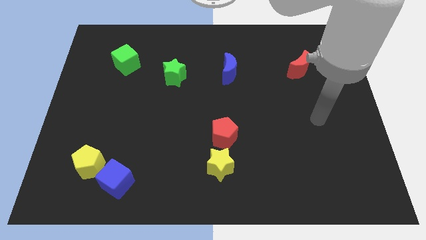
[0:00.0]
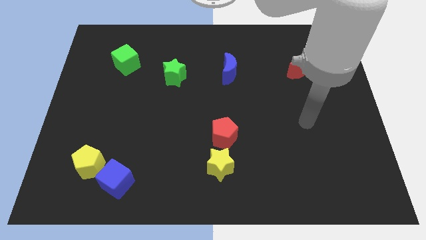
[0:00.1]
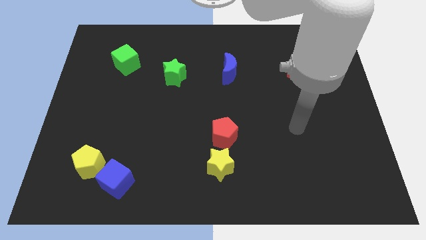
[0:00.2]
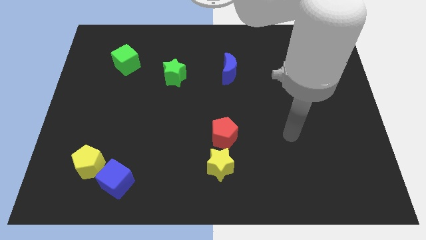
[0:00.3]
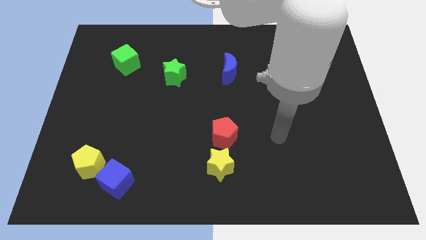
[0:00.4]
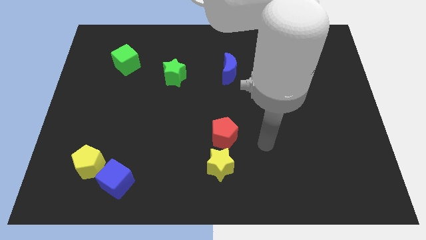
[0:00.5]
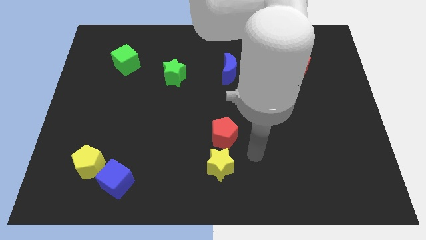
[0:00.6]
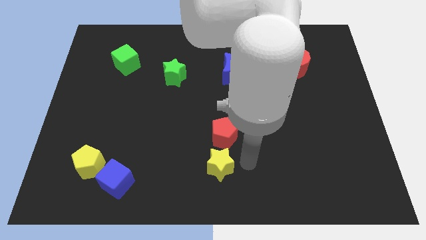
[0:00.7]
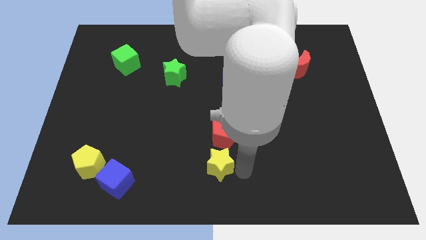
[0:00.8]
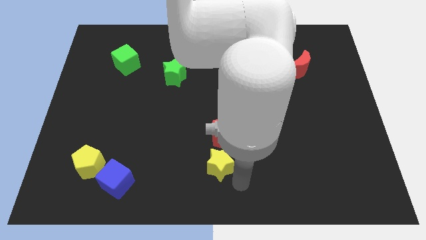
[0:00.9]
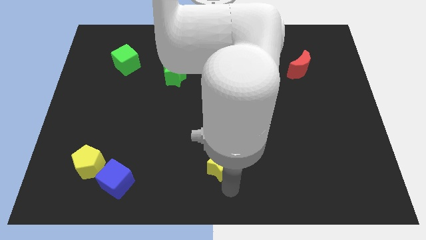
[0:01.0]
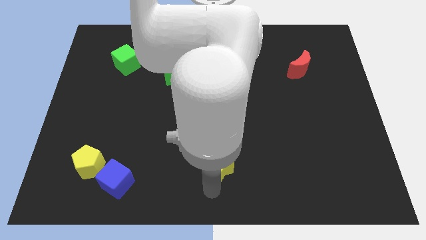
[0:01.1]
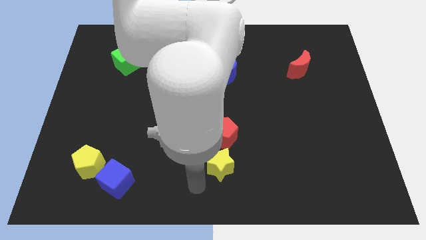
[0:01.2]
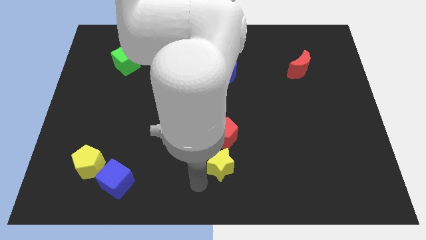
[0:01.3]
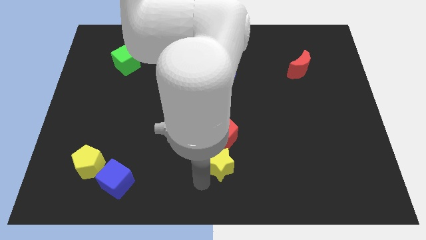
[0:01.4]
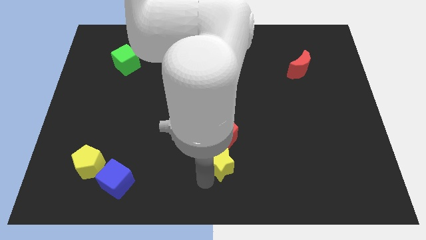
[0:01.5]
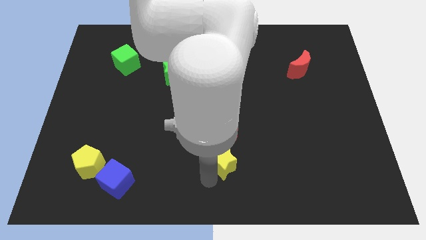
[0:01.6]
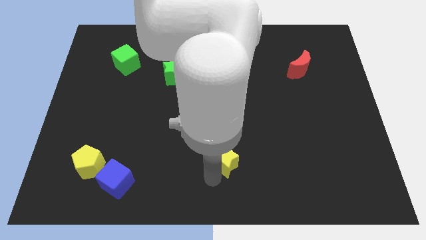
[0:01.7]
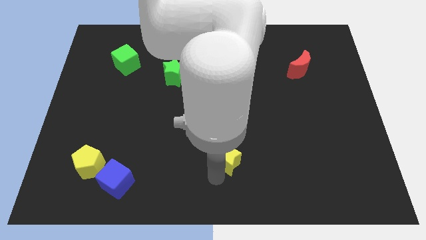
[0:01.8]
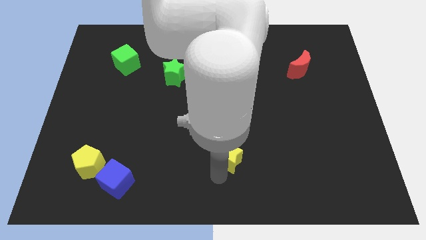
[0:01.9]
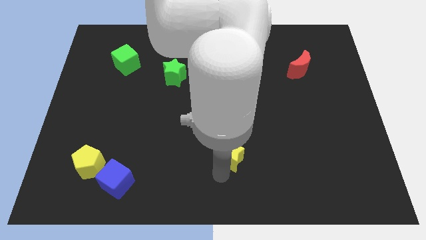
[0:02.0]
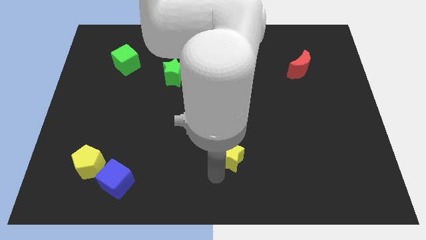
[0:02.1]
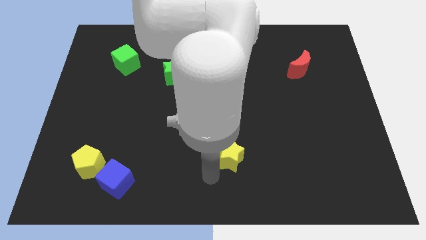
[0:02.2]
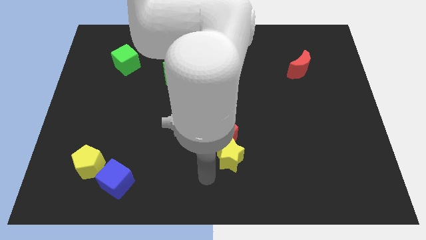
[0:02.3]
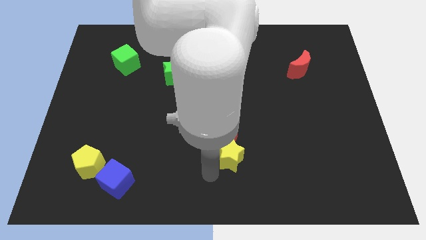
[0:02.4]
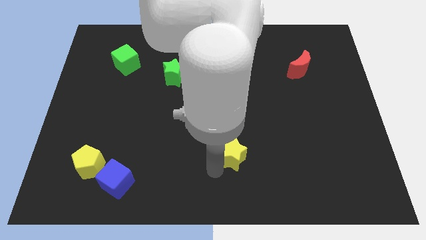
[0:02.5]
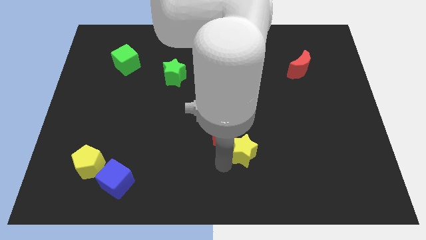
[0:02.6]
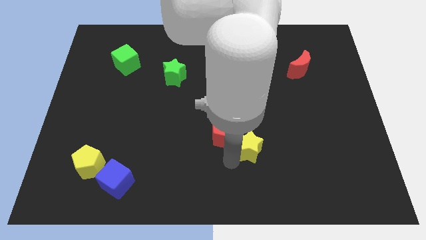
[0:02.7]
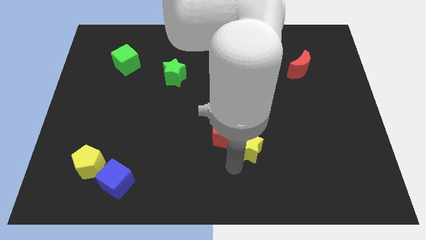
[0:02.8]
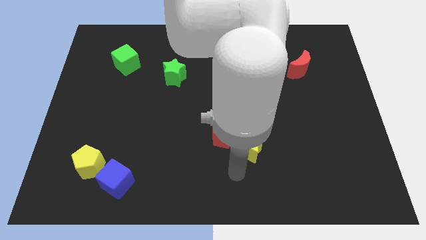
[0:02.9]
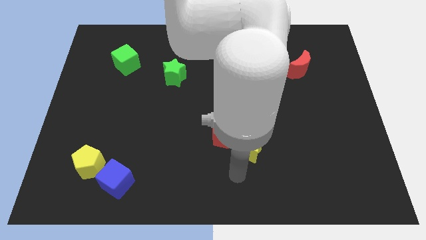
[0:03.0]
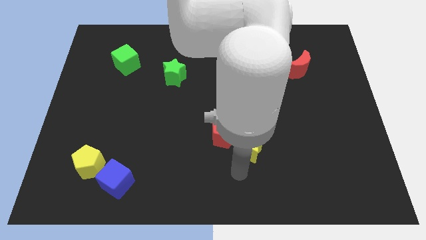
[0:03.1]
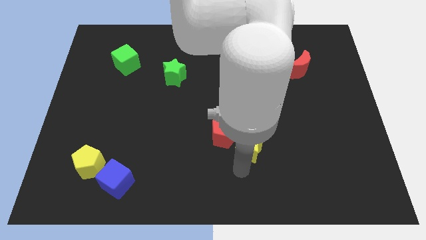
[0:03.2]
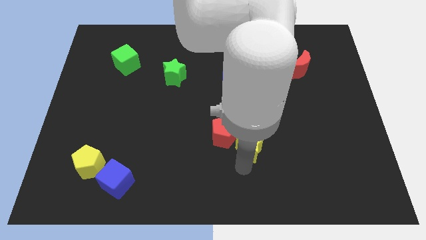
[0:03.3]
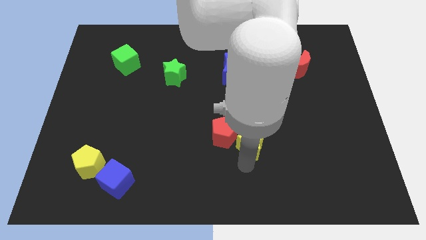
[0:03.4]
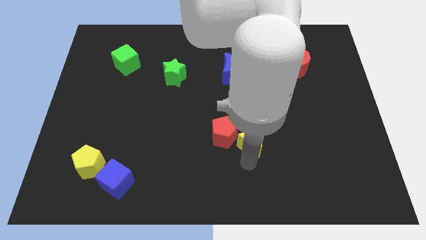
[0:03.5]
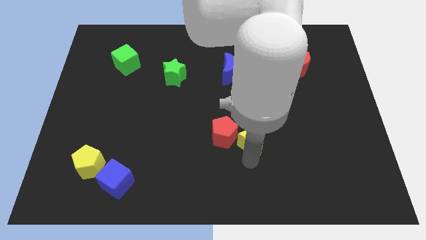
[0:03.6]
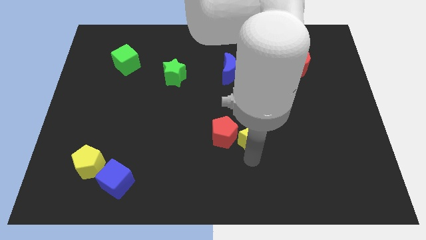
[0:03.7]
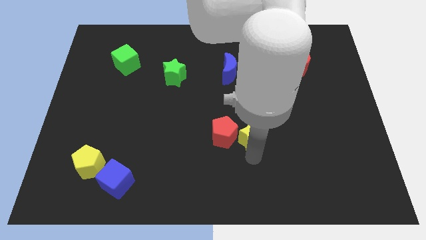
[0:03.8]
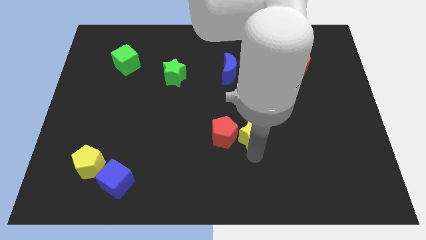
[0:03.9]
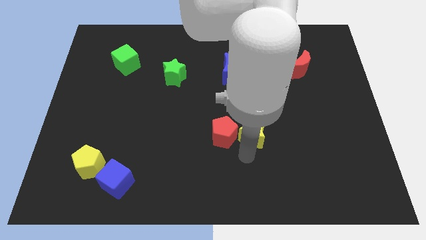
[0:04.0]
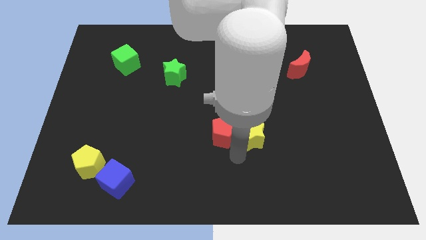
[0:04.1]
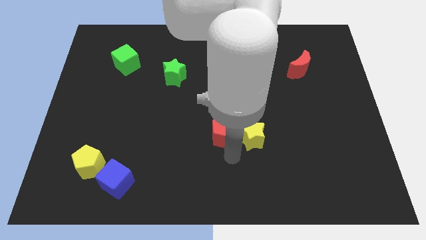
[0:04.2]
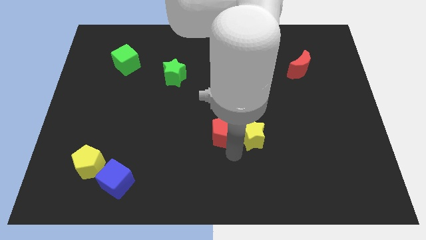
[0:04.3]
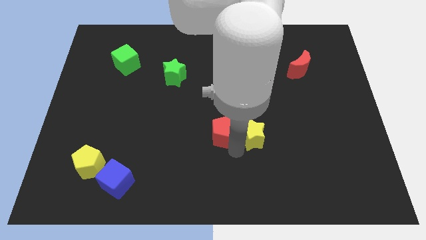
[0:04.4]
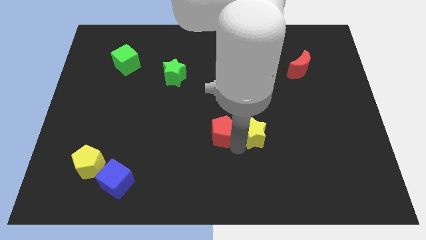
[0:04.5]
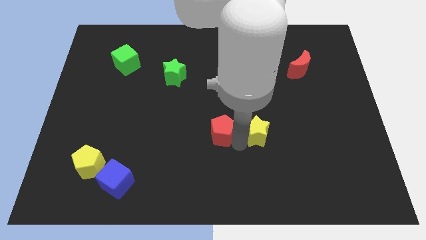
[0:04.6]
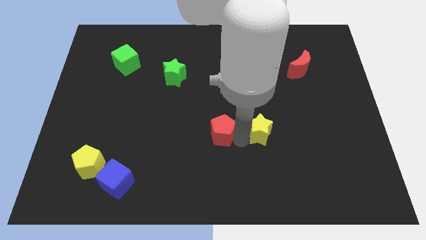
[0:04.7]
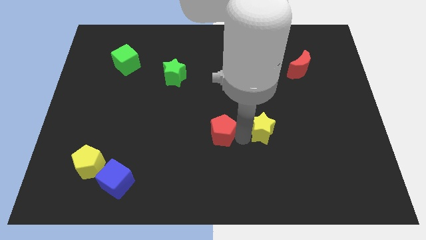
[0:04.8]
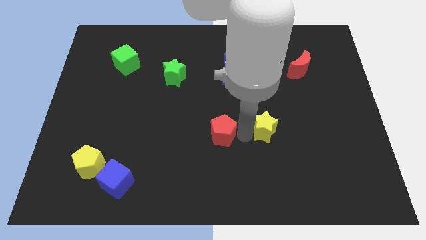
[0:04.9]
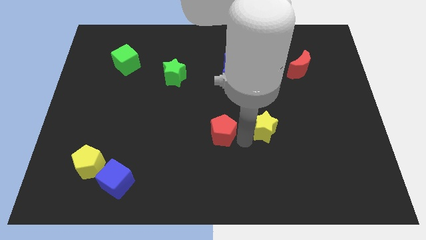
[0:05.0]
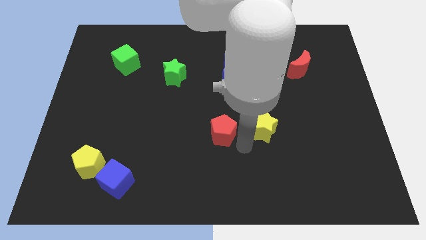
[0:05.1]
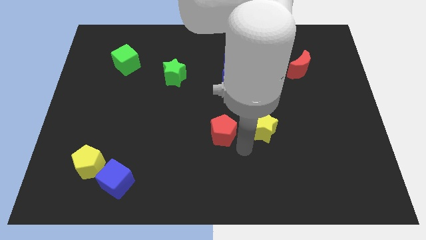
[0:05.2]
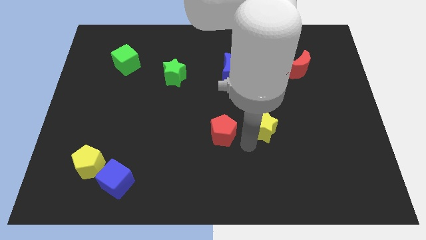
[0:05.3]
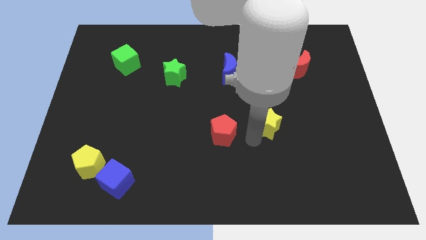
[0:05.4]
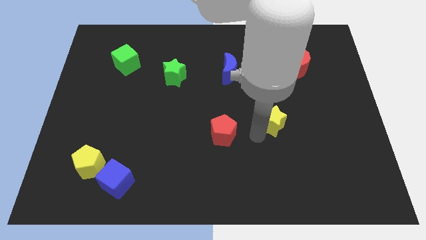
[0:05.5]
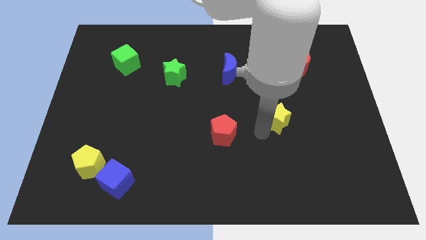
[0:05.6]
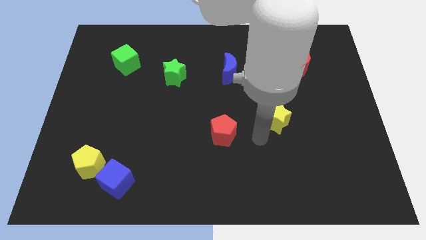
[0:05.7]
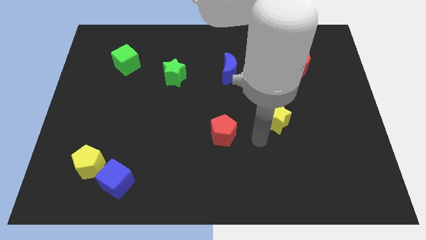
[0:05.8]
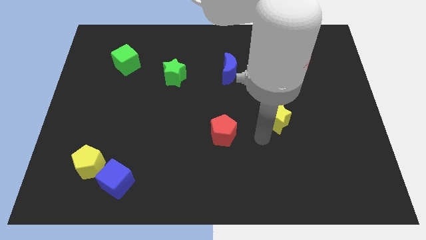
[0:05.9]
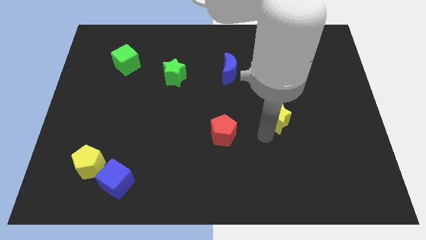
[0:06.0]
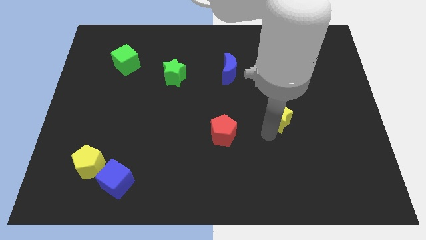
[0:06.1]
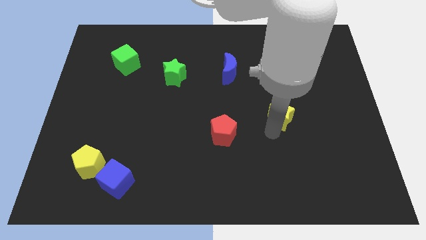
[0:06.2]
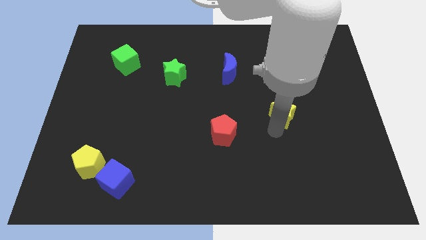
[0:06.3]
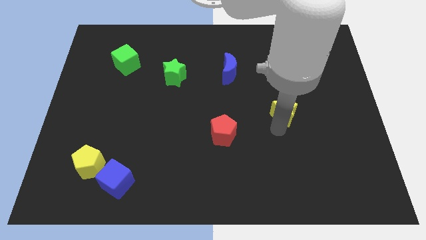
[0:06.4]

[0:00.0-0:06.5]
slide the yellow star upwards and to the right

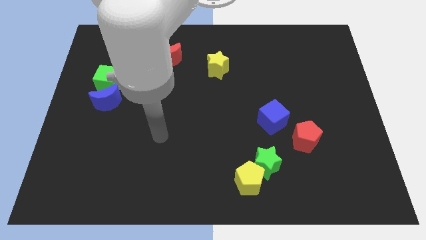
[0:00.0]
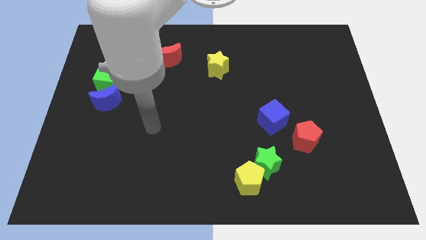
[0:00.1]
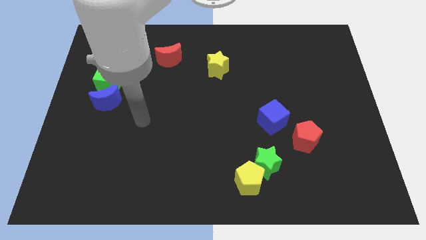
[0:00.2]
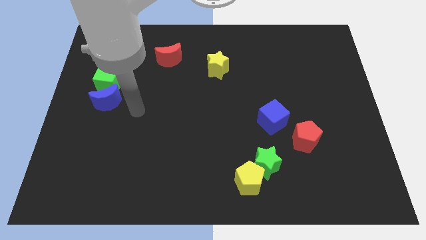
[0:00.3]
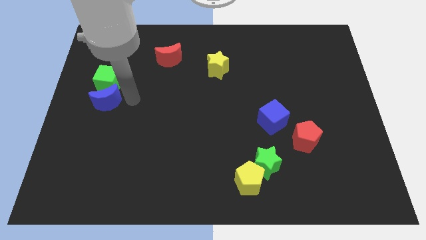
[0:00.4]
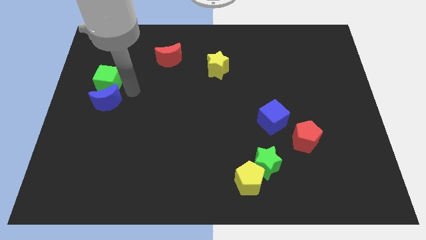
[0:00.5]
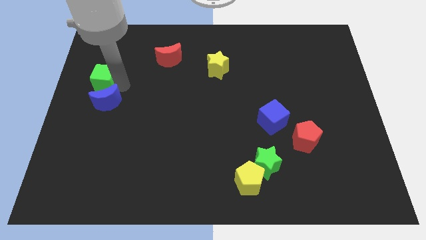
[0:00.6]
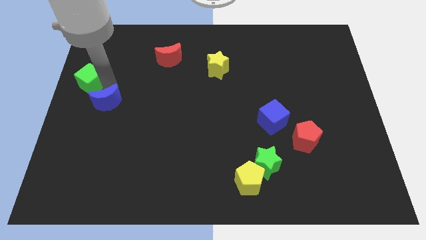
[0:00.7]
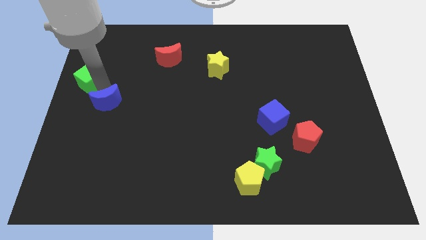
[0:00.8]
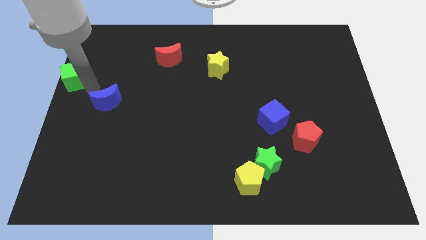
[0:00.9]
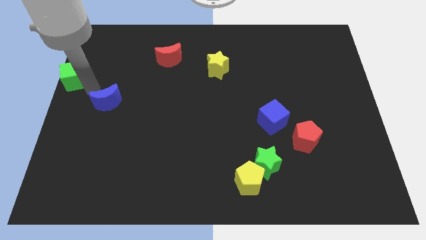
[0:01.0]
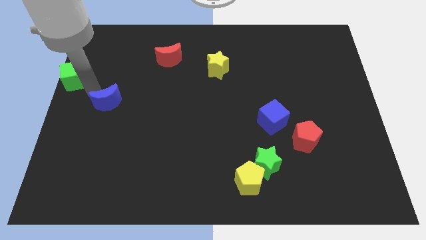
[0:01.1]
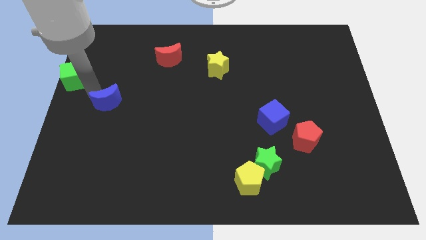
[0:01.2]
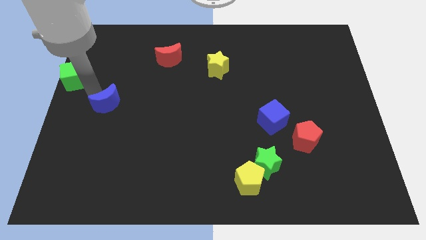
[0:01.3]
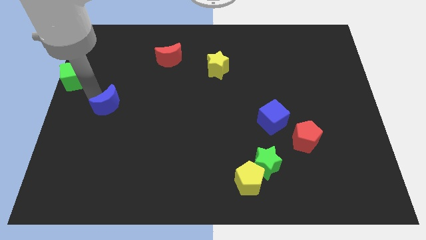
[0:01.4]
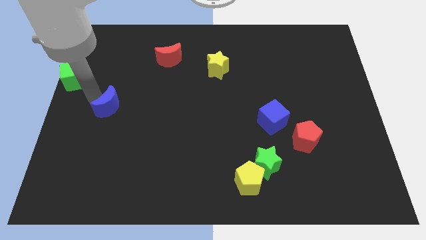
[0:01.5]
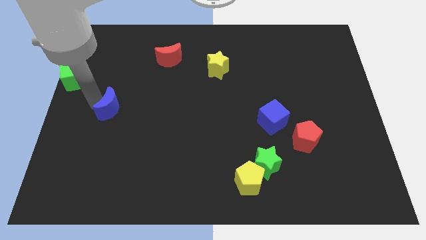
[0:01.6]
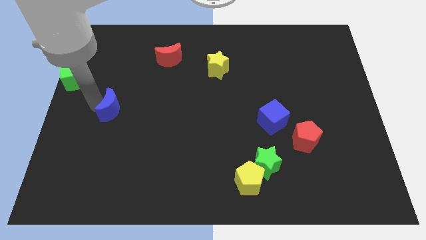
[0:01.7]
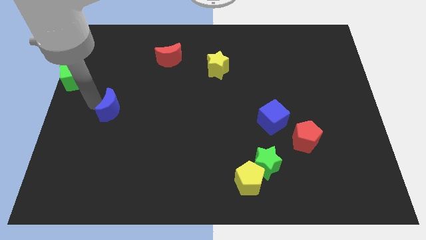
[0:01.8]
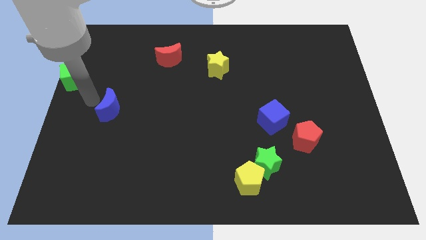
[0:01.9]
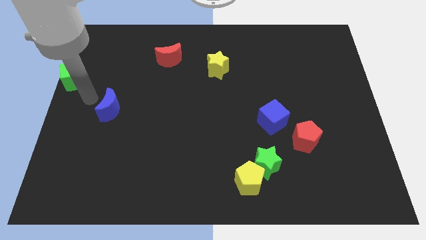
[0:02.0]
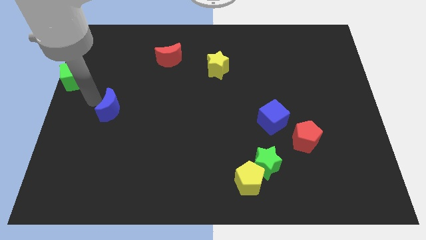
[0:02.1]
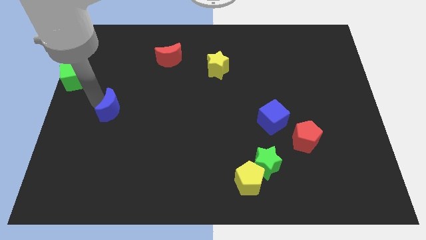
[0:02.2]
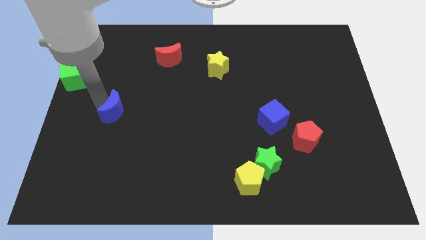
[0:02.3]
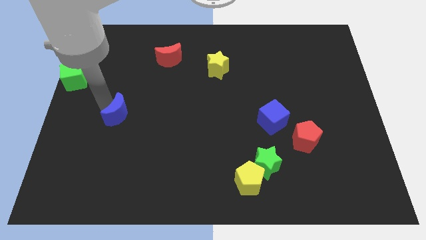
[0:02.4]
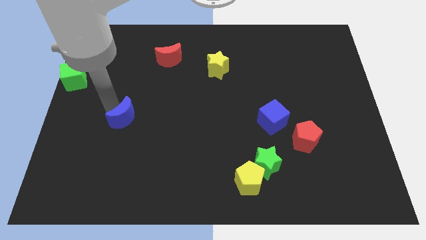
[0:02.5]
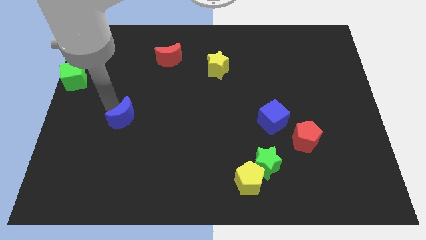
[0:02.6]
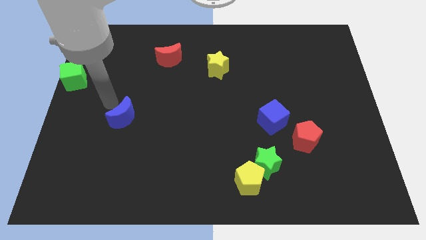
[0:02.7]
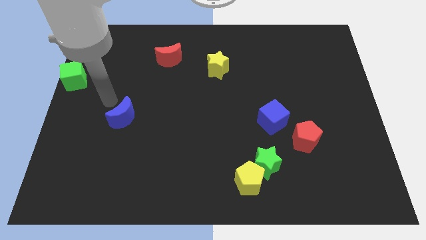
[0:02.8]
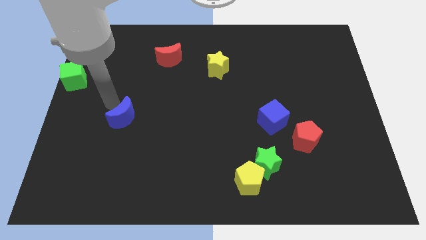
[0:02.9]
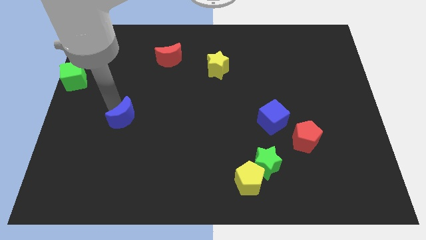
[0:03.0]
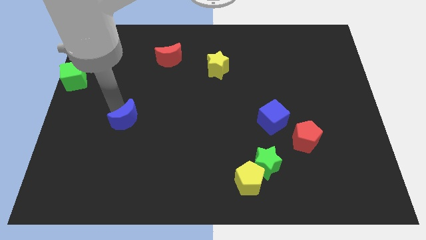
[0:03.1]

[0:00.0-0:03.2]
slide the blue moon downwards and right somewhat
